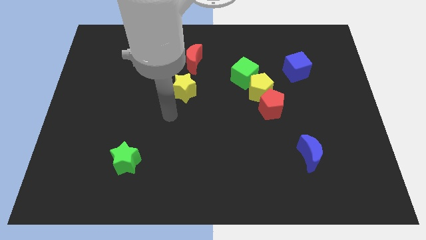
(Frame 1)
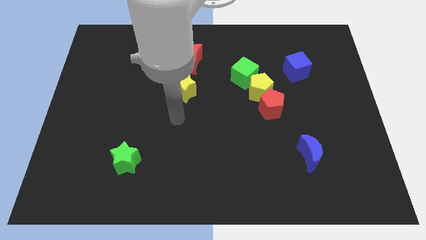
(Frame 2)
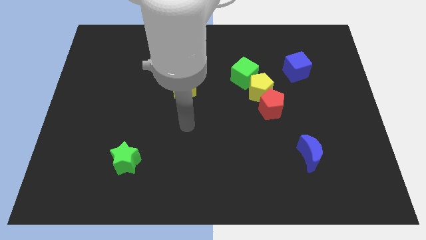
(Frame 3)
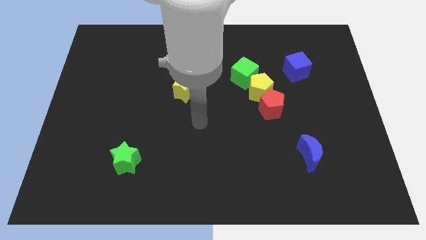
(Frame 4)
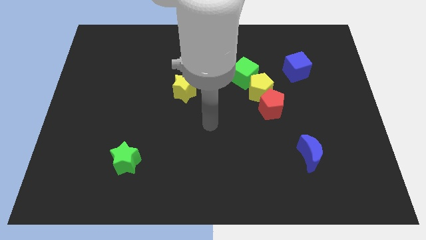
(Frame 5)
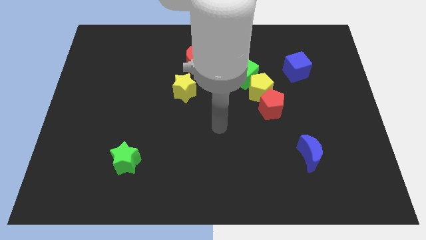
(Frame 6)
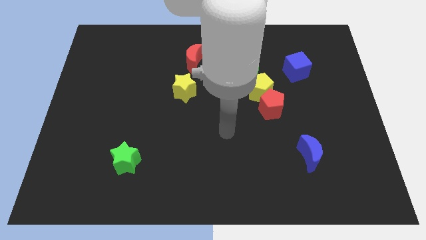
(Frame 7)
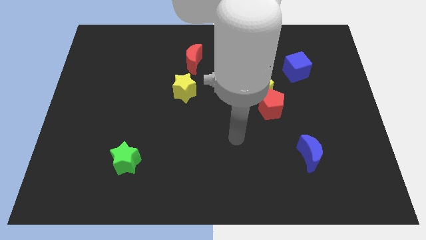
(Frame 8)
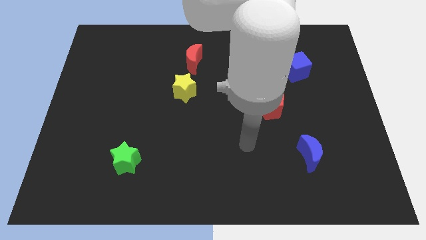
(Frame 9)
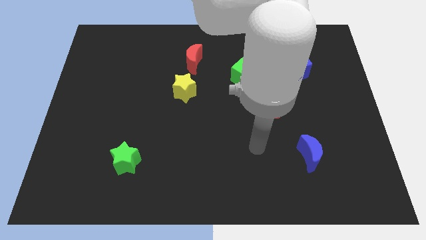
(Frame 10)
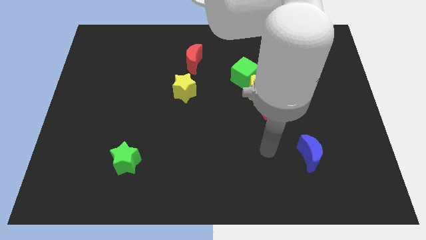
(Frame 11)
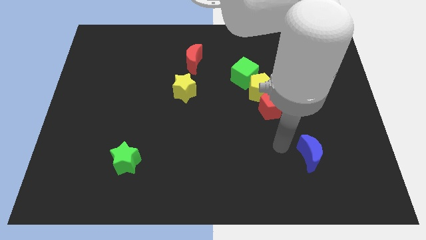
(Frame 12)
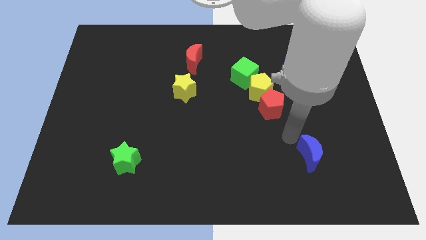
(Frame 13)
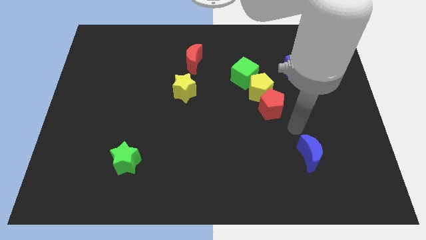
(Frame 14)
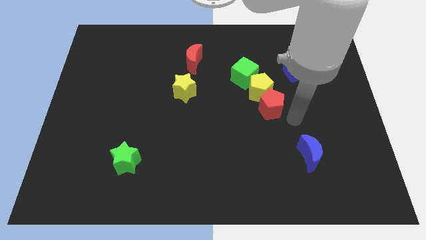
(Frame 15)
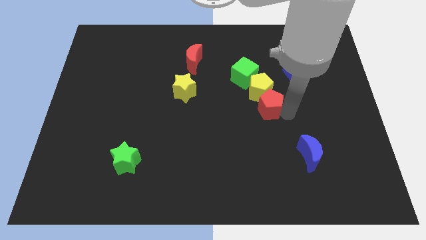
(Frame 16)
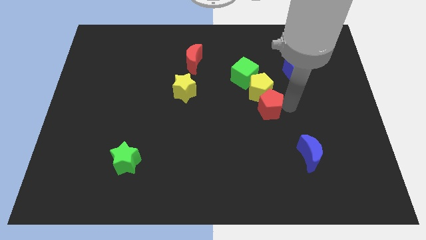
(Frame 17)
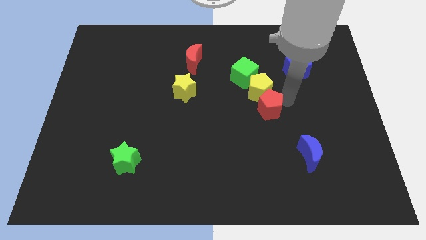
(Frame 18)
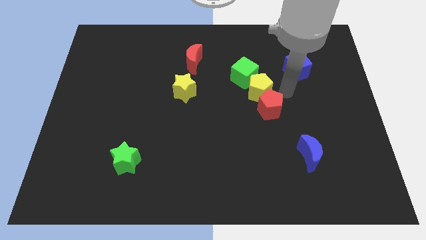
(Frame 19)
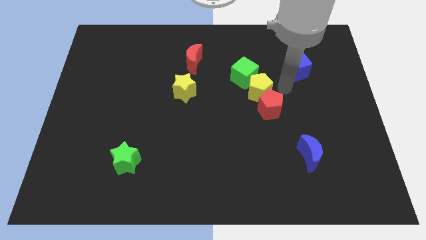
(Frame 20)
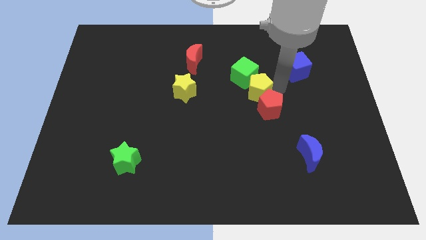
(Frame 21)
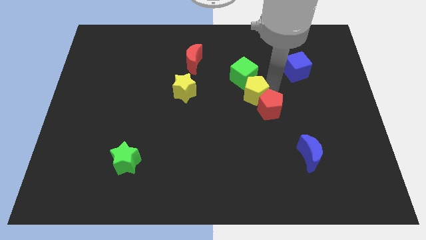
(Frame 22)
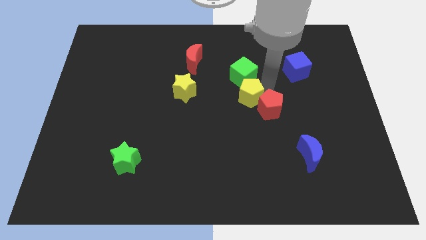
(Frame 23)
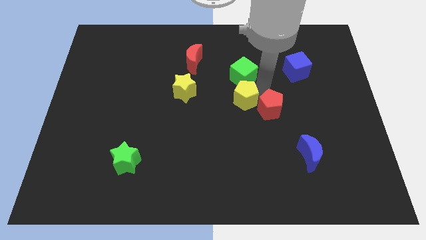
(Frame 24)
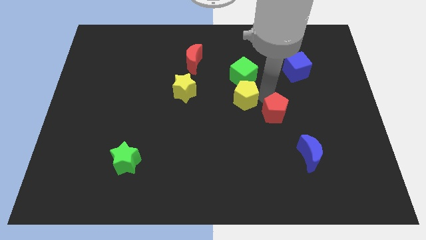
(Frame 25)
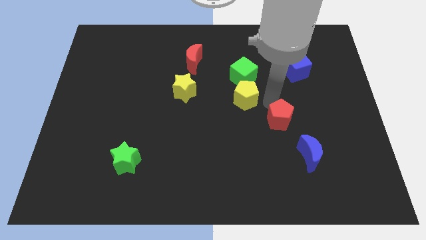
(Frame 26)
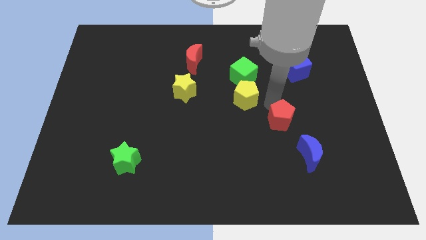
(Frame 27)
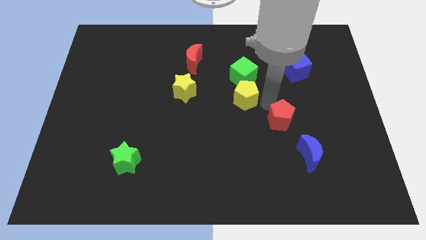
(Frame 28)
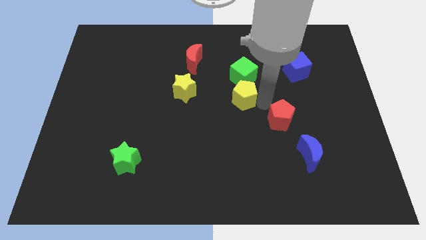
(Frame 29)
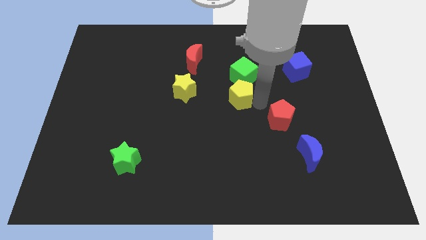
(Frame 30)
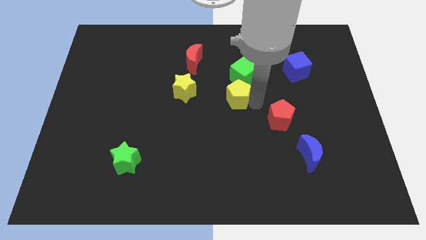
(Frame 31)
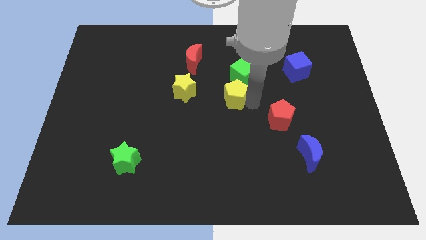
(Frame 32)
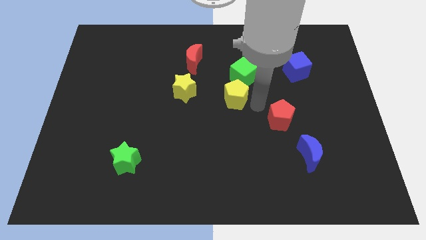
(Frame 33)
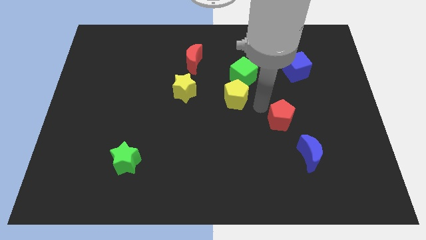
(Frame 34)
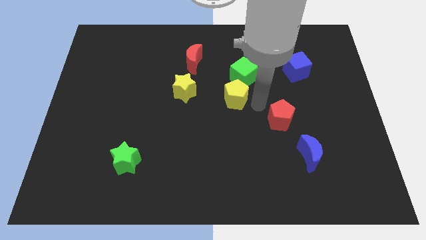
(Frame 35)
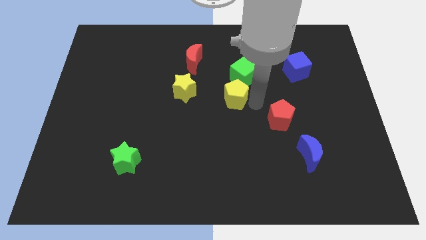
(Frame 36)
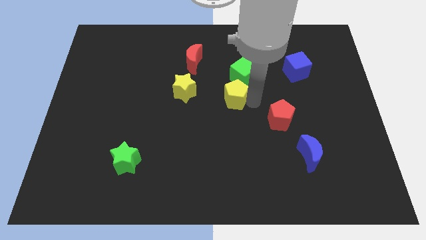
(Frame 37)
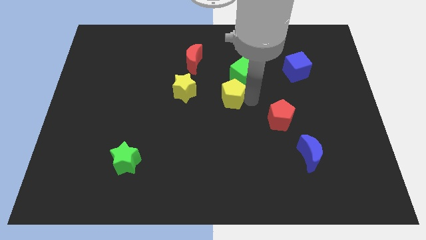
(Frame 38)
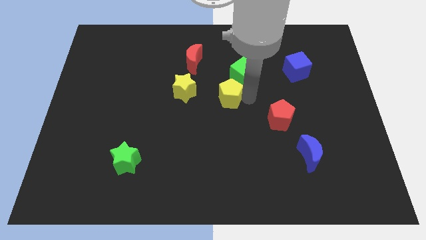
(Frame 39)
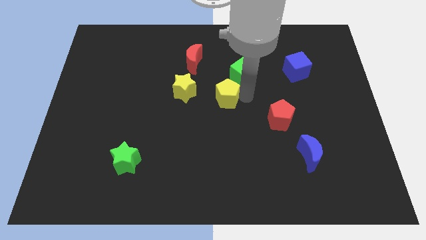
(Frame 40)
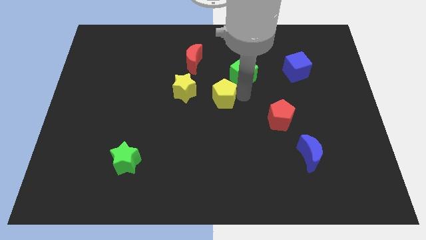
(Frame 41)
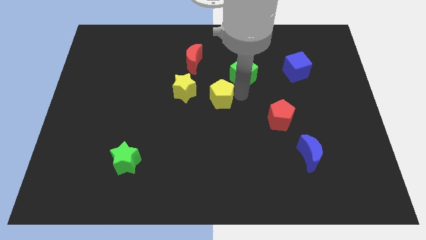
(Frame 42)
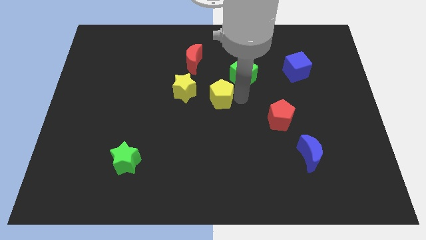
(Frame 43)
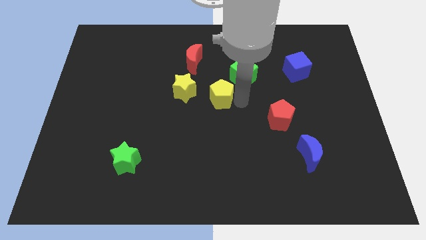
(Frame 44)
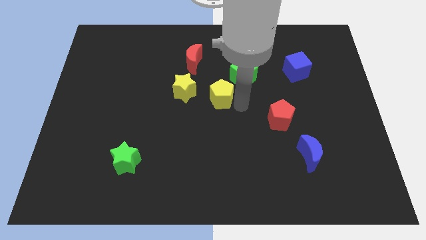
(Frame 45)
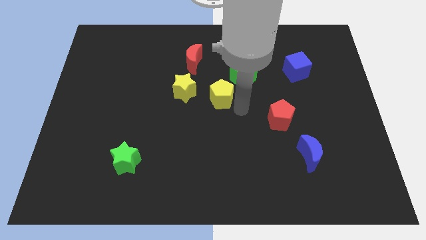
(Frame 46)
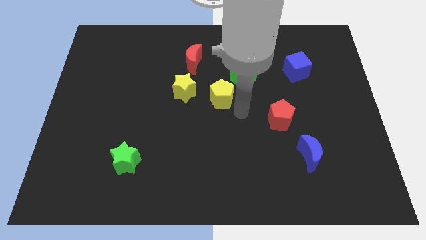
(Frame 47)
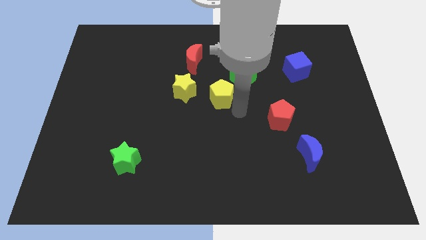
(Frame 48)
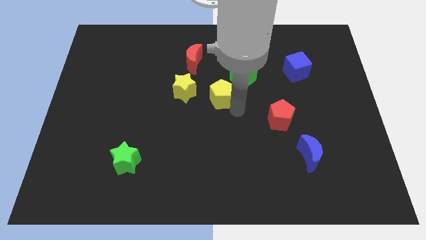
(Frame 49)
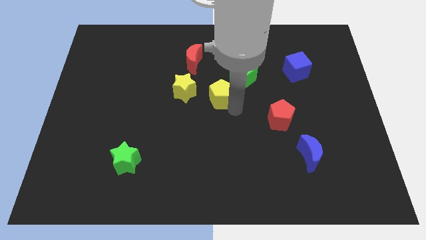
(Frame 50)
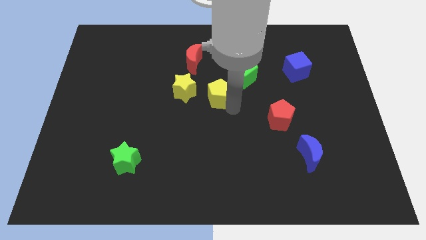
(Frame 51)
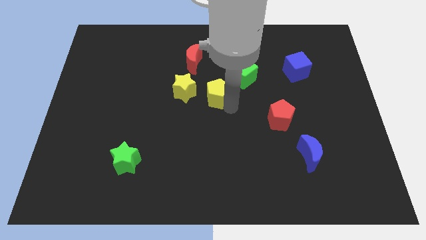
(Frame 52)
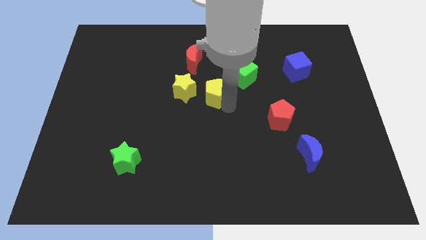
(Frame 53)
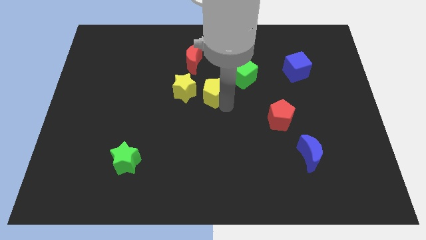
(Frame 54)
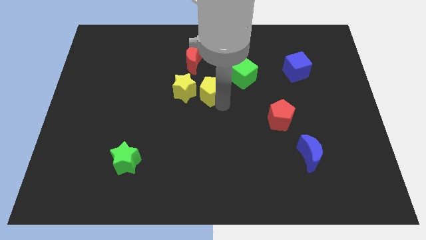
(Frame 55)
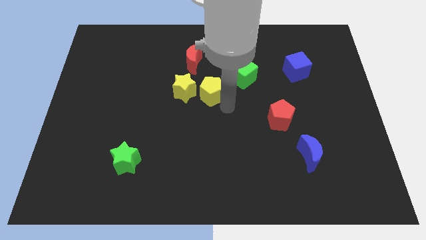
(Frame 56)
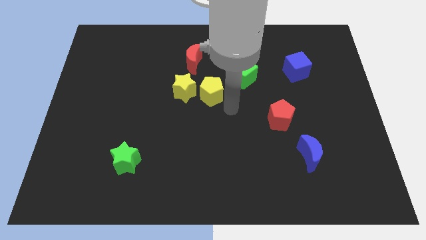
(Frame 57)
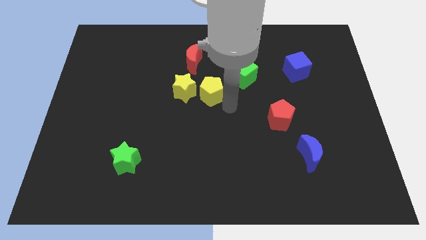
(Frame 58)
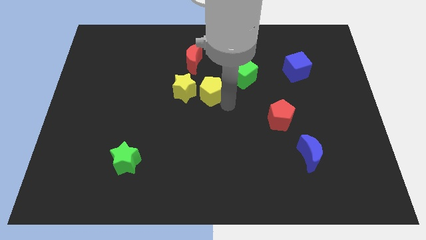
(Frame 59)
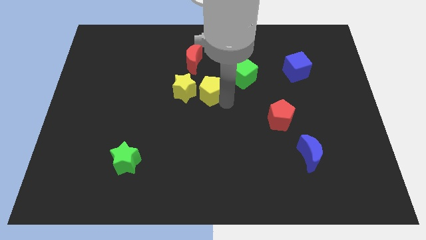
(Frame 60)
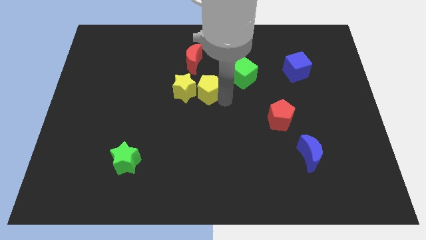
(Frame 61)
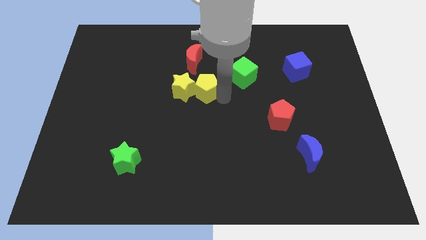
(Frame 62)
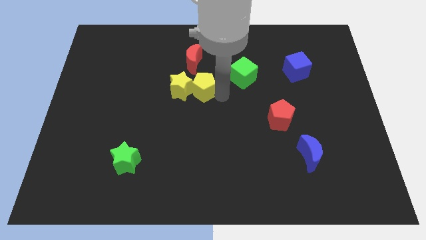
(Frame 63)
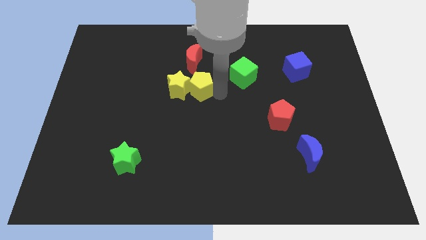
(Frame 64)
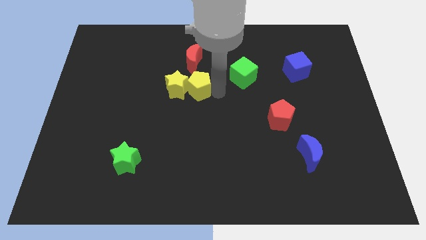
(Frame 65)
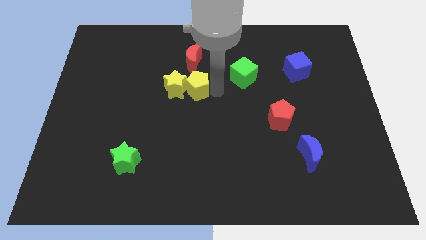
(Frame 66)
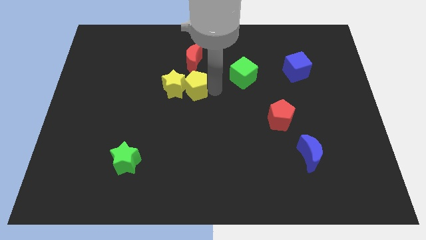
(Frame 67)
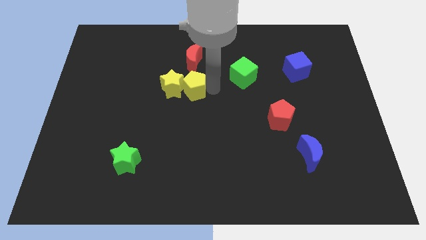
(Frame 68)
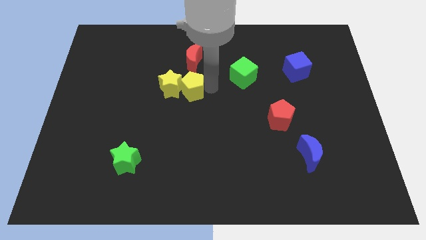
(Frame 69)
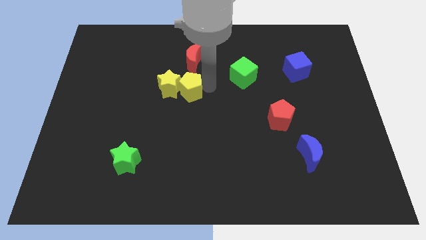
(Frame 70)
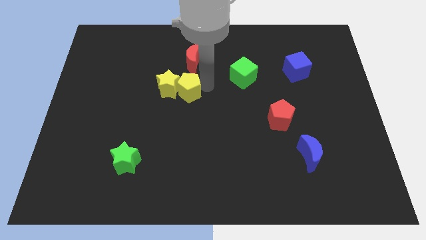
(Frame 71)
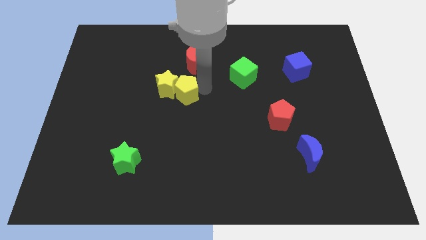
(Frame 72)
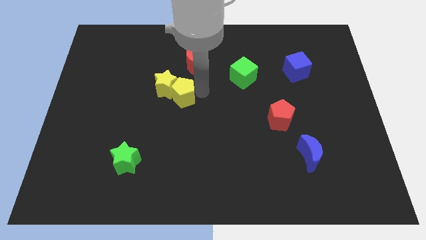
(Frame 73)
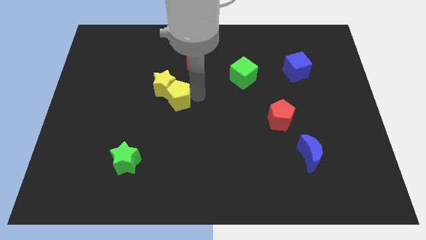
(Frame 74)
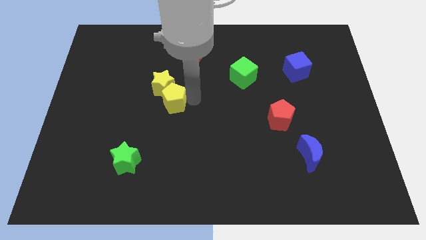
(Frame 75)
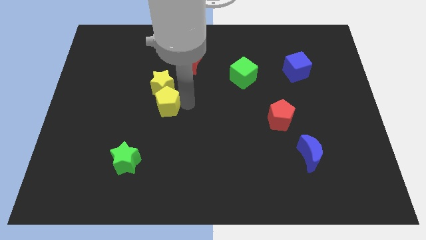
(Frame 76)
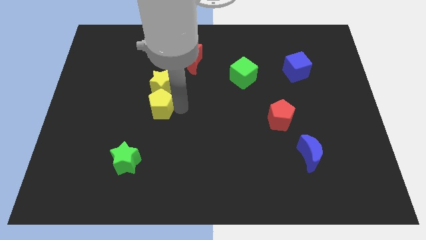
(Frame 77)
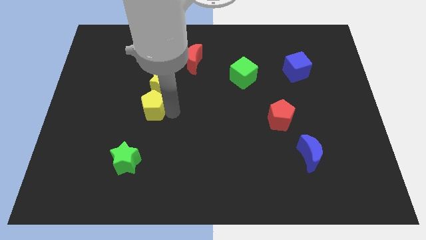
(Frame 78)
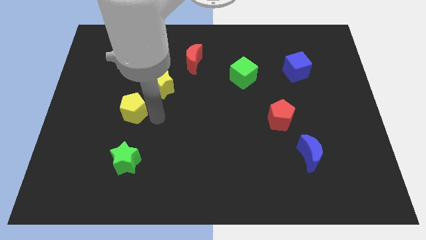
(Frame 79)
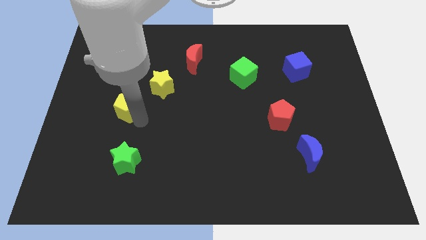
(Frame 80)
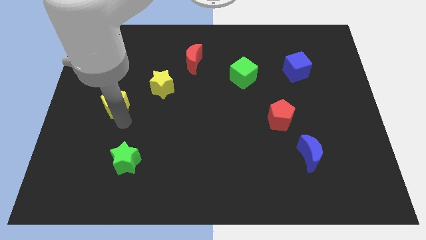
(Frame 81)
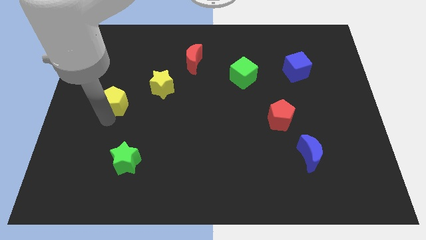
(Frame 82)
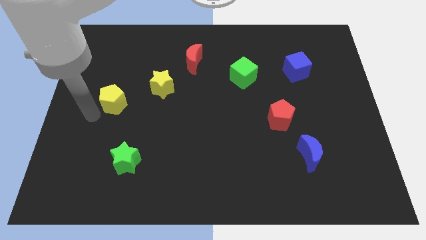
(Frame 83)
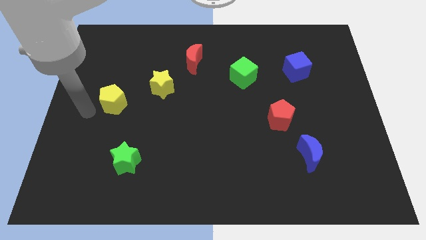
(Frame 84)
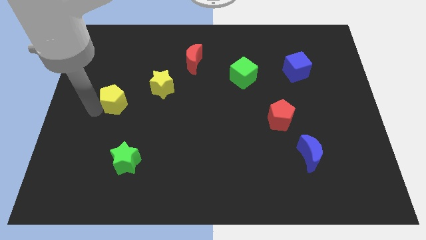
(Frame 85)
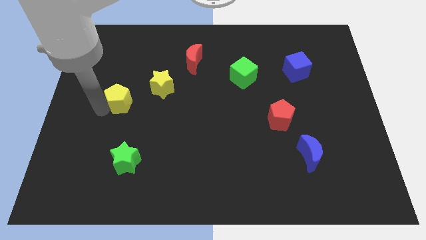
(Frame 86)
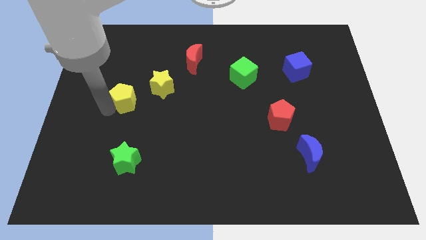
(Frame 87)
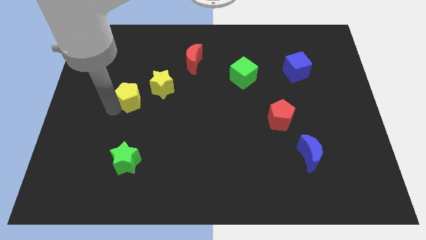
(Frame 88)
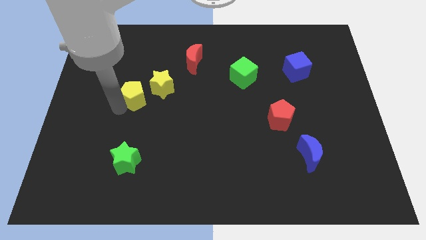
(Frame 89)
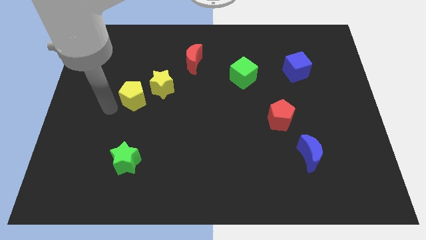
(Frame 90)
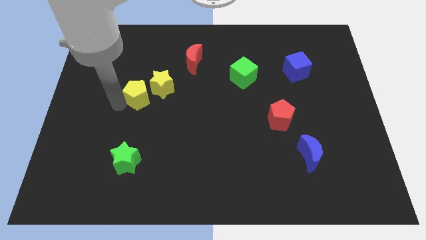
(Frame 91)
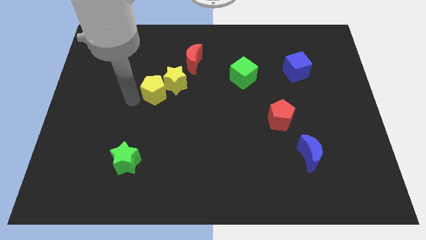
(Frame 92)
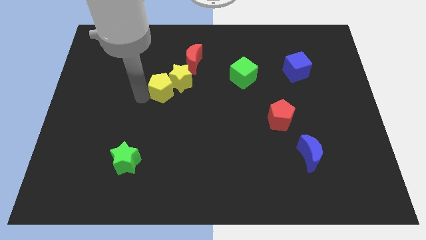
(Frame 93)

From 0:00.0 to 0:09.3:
slide the yellow pentagon to the bottom left side of the red moon
